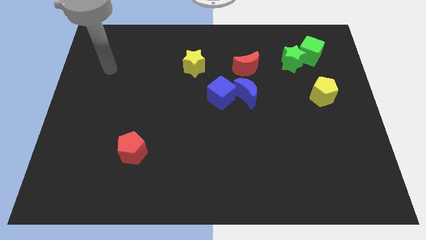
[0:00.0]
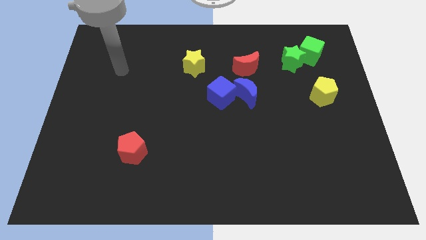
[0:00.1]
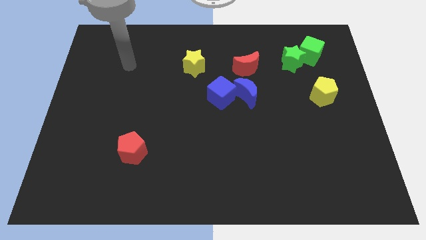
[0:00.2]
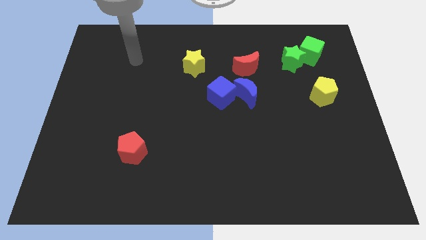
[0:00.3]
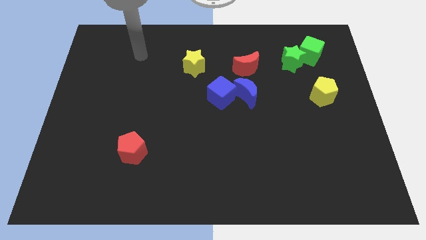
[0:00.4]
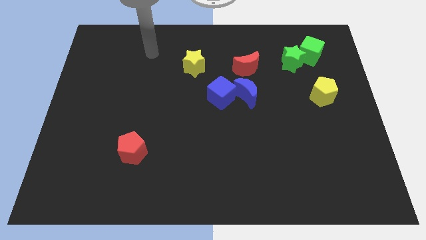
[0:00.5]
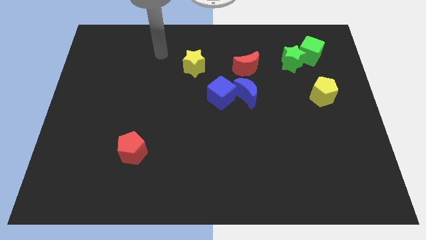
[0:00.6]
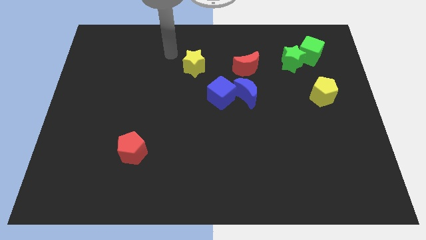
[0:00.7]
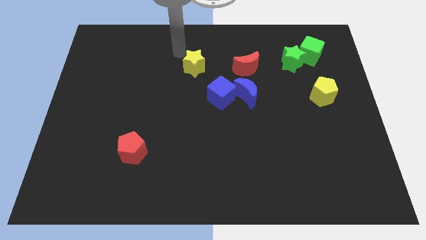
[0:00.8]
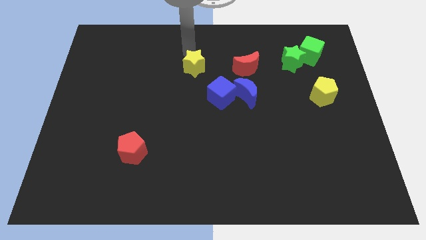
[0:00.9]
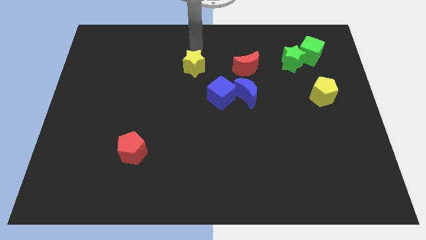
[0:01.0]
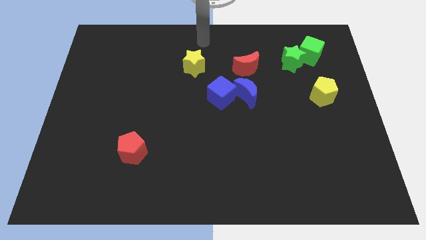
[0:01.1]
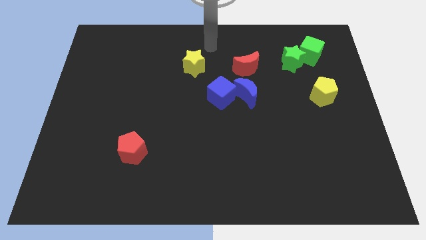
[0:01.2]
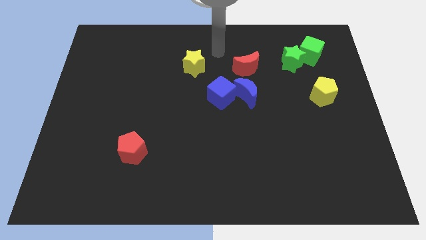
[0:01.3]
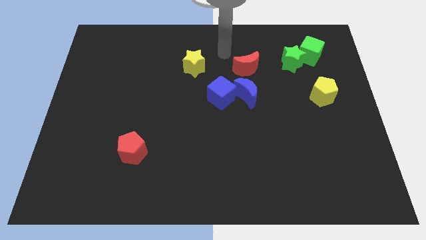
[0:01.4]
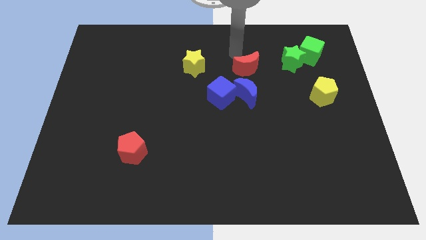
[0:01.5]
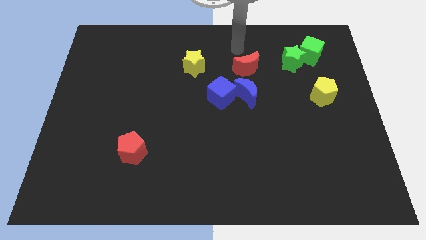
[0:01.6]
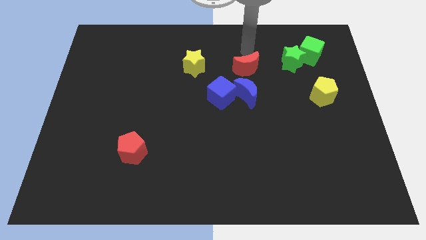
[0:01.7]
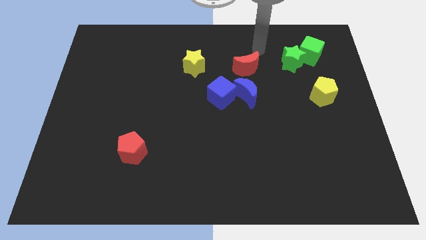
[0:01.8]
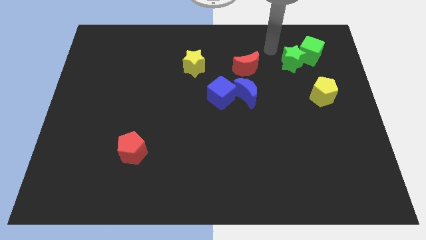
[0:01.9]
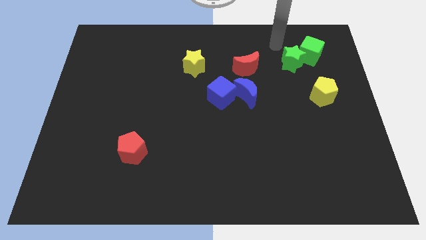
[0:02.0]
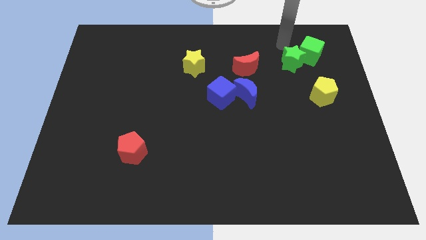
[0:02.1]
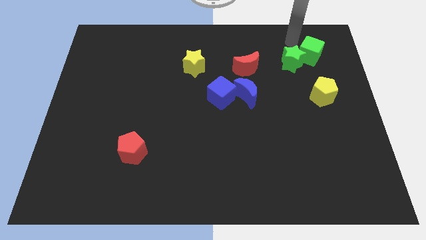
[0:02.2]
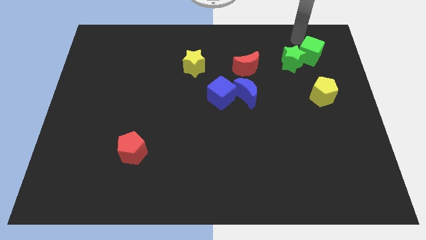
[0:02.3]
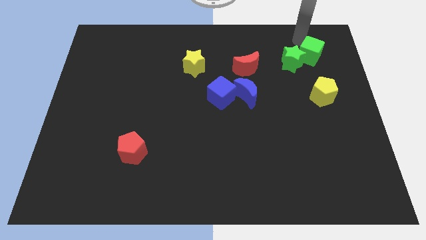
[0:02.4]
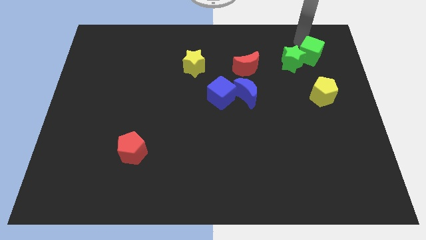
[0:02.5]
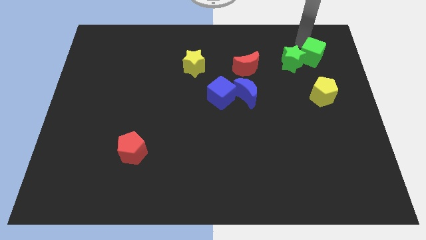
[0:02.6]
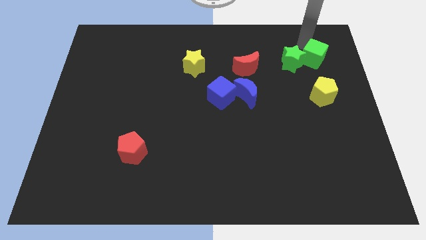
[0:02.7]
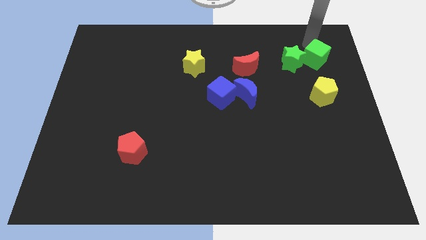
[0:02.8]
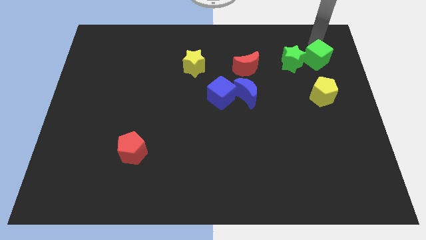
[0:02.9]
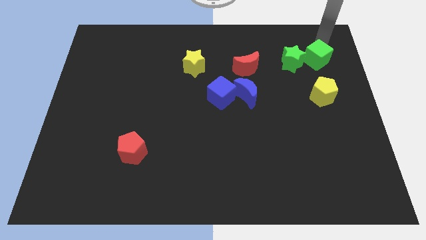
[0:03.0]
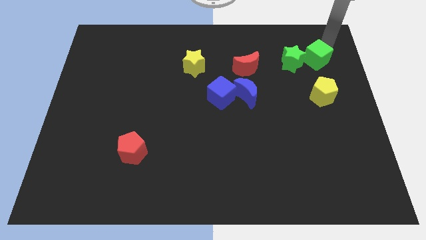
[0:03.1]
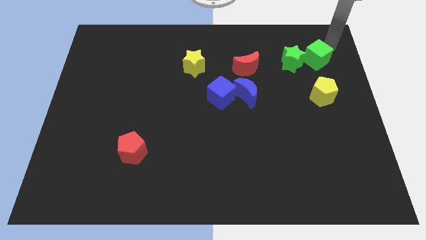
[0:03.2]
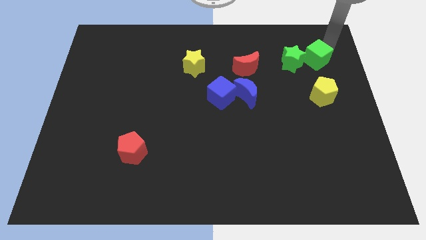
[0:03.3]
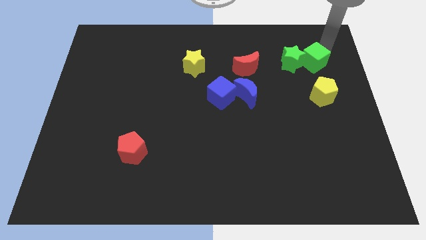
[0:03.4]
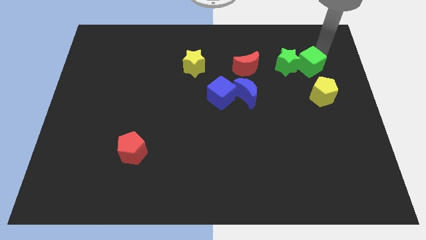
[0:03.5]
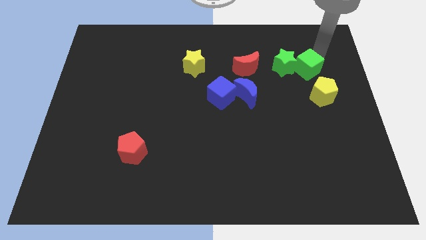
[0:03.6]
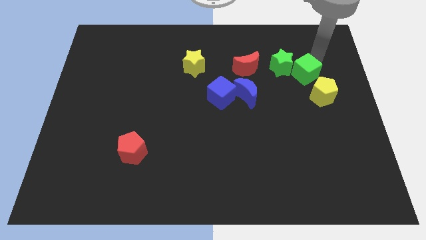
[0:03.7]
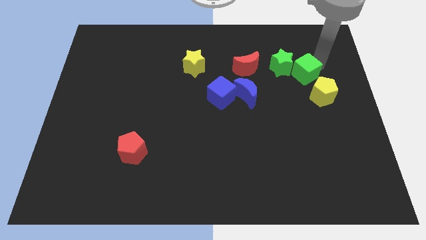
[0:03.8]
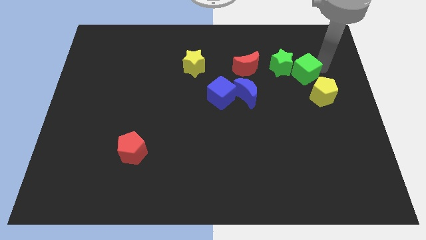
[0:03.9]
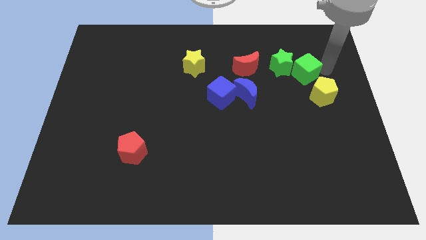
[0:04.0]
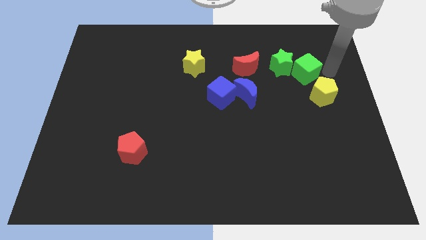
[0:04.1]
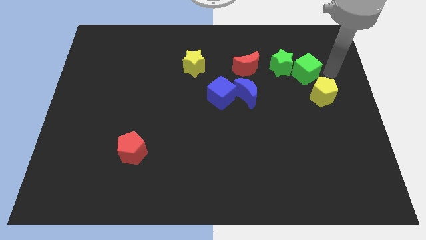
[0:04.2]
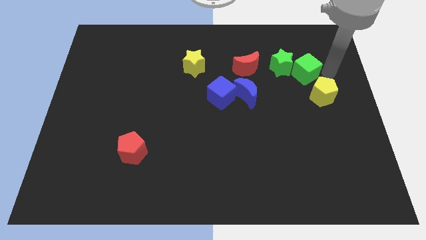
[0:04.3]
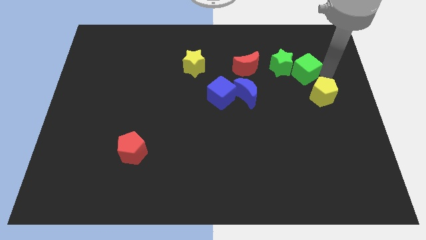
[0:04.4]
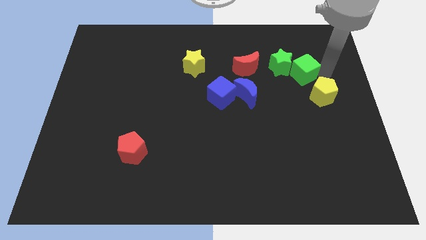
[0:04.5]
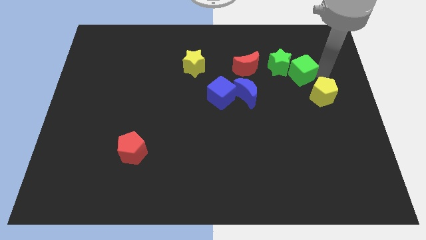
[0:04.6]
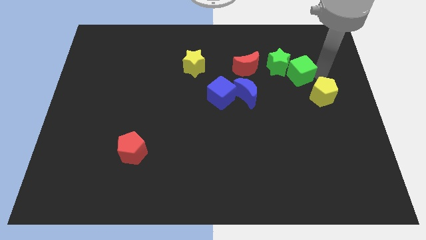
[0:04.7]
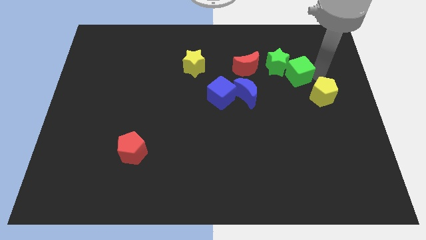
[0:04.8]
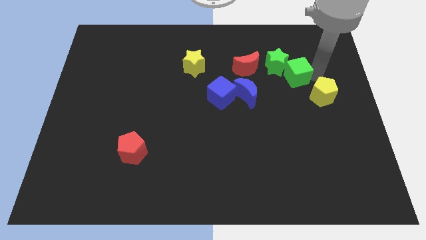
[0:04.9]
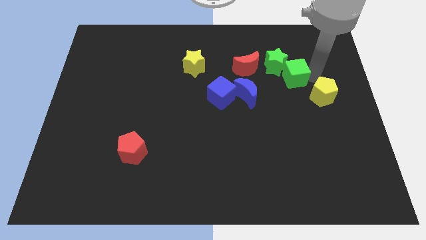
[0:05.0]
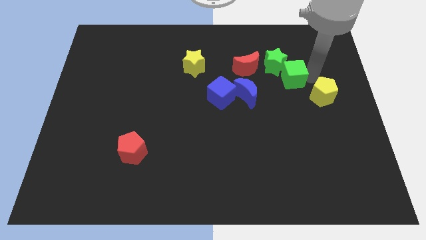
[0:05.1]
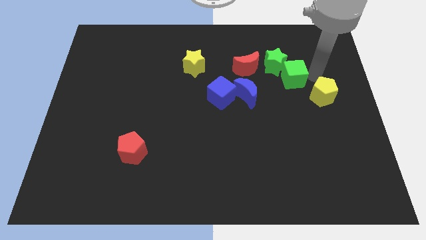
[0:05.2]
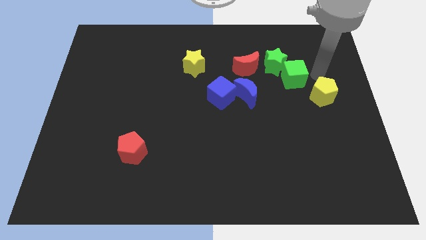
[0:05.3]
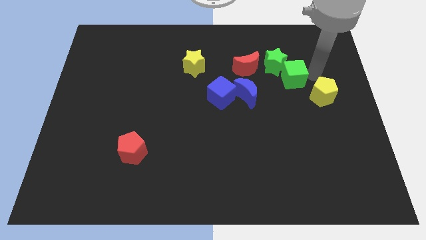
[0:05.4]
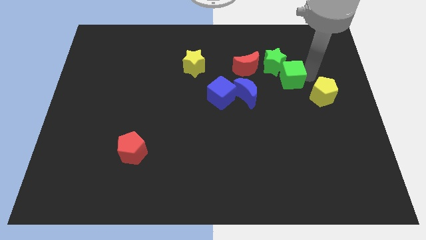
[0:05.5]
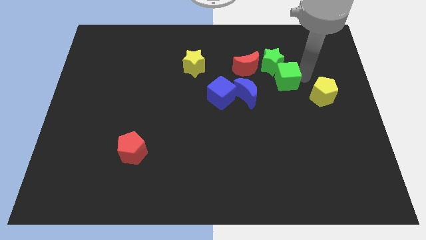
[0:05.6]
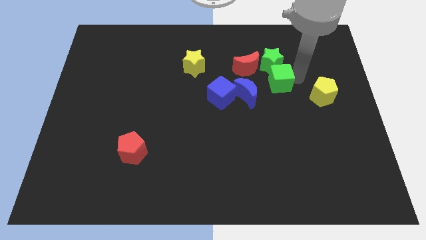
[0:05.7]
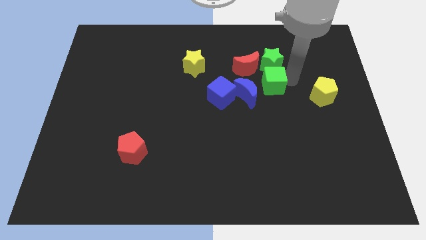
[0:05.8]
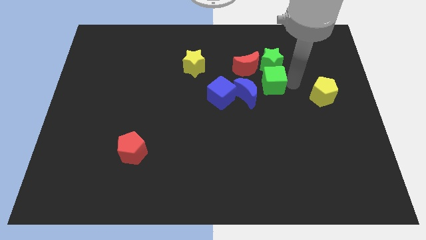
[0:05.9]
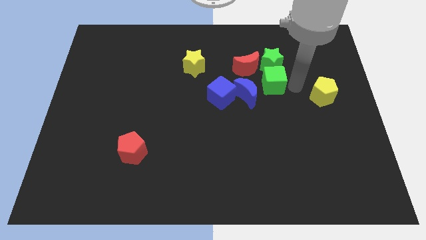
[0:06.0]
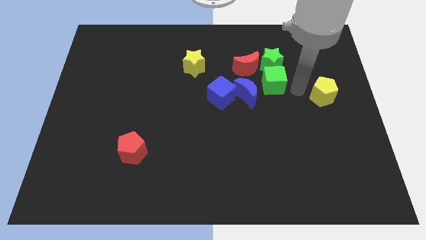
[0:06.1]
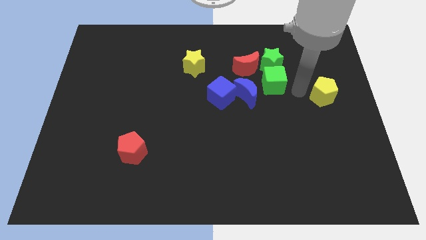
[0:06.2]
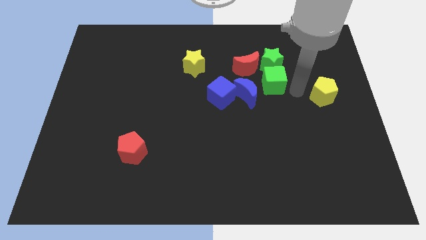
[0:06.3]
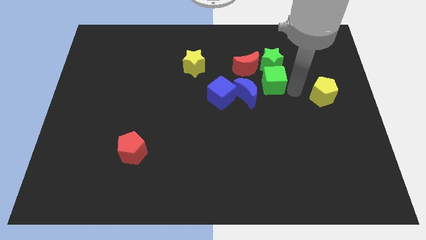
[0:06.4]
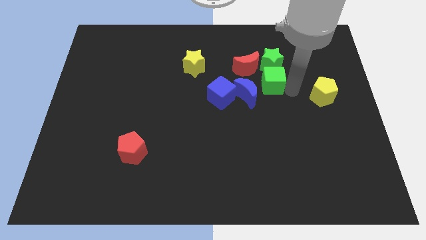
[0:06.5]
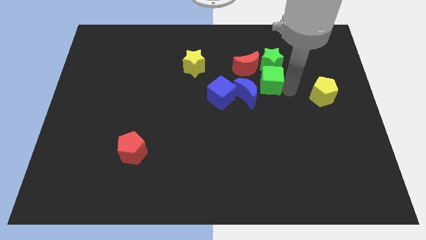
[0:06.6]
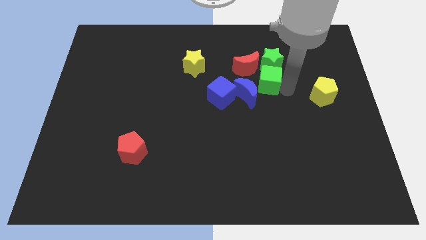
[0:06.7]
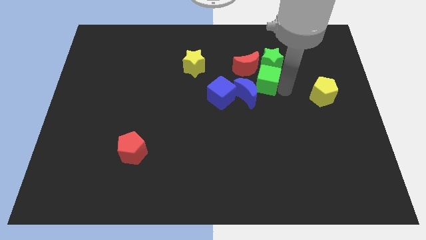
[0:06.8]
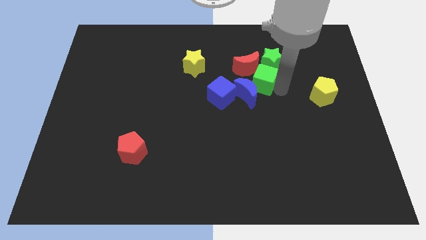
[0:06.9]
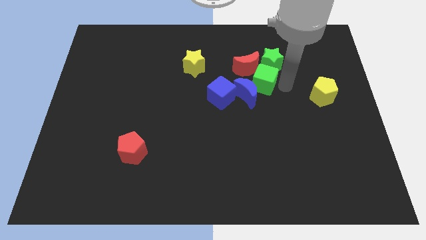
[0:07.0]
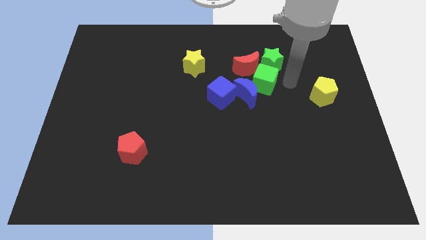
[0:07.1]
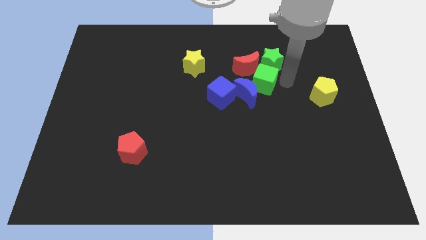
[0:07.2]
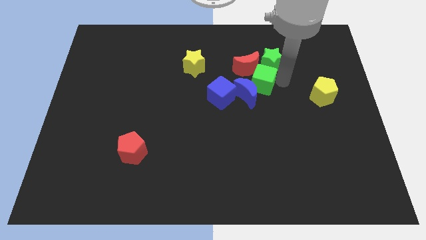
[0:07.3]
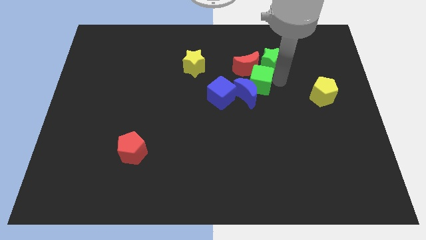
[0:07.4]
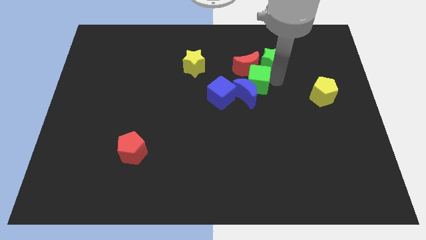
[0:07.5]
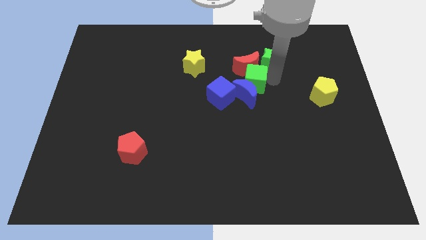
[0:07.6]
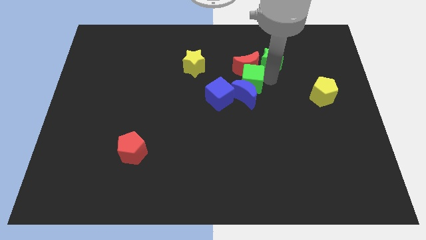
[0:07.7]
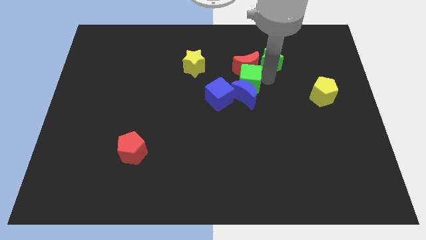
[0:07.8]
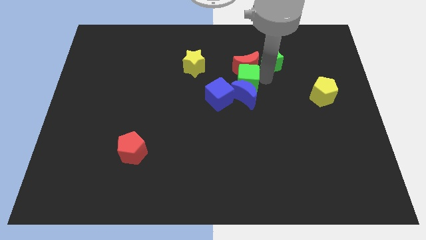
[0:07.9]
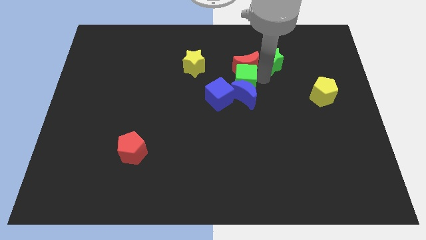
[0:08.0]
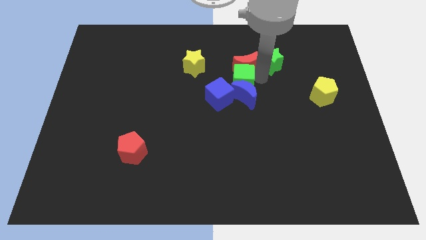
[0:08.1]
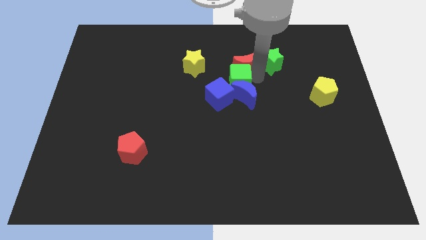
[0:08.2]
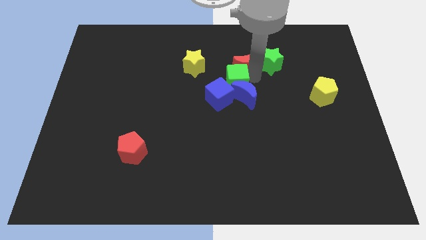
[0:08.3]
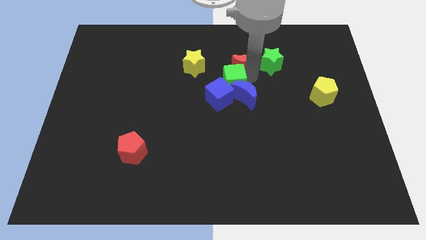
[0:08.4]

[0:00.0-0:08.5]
move the green cube to the blue cube
